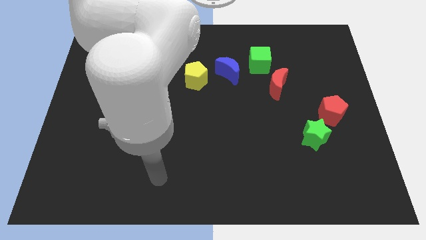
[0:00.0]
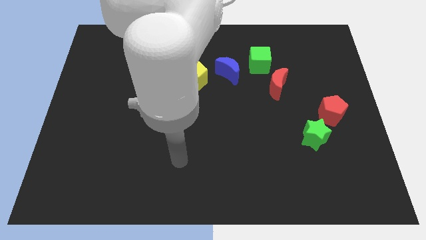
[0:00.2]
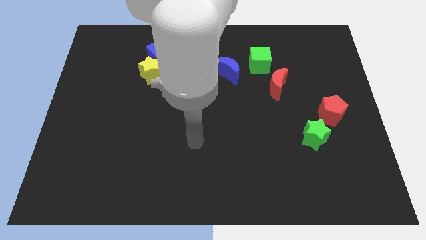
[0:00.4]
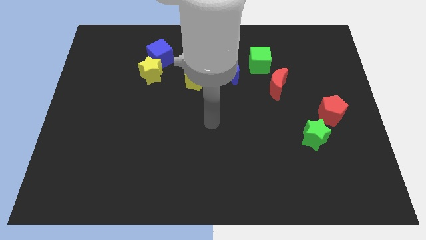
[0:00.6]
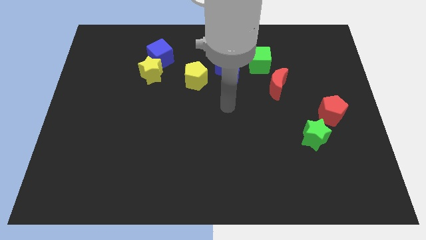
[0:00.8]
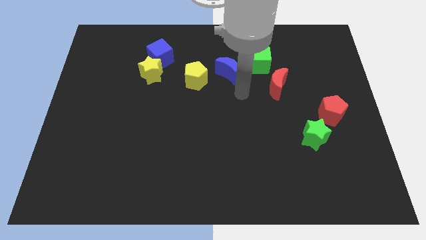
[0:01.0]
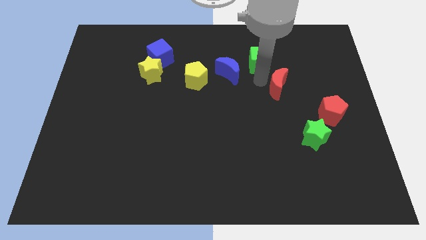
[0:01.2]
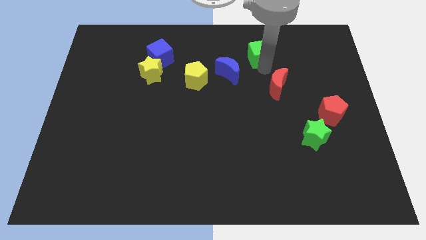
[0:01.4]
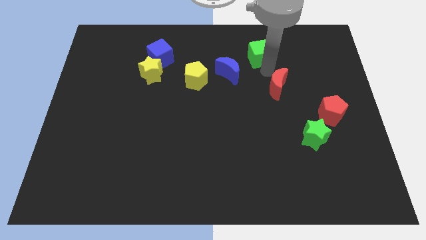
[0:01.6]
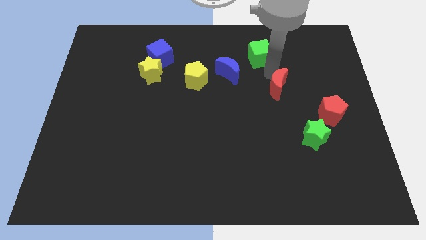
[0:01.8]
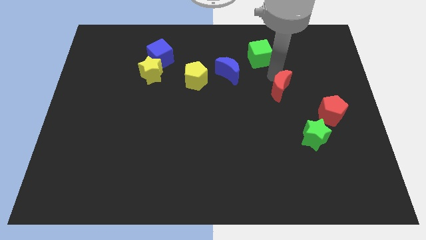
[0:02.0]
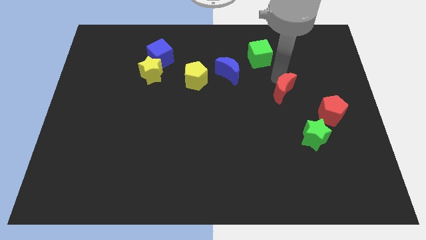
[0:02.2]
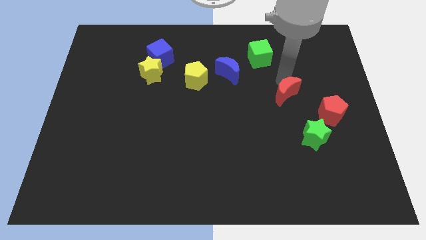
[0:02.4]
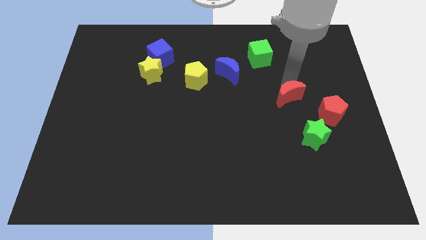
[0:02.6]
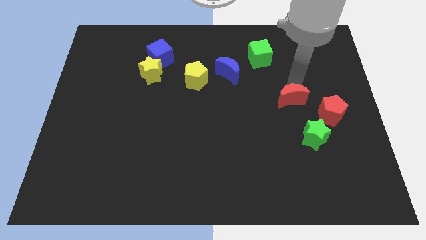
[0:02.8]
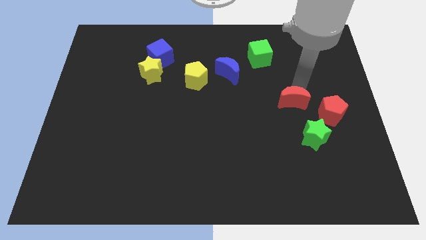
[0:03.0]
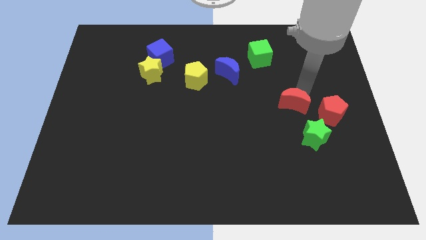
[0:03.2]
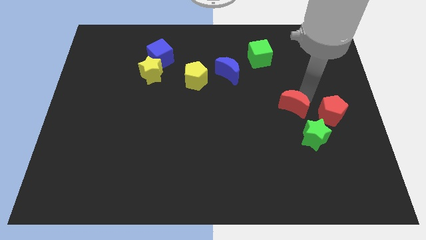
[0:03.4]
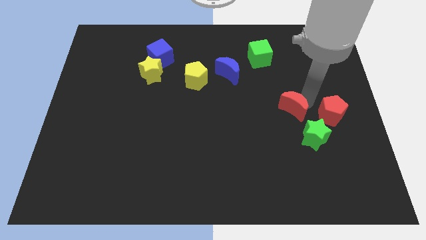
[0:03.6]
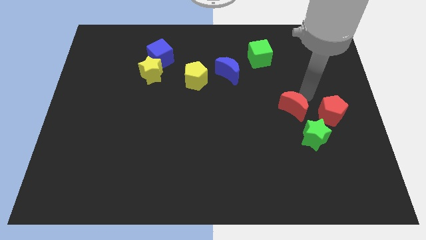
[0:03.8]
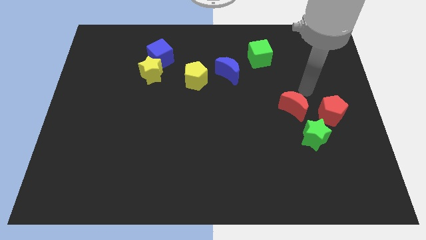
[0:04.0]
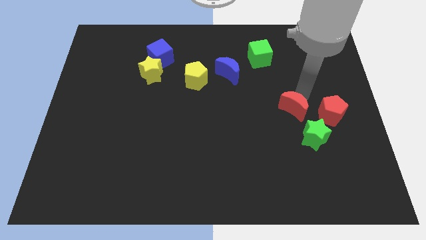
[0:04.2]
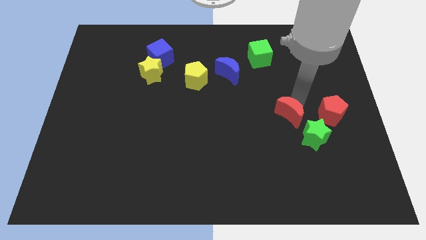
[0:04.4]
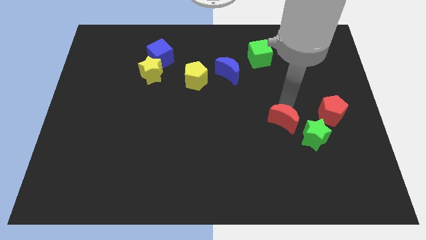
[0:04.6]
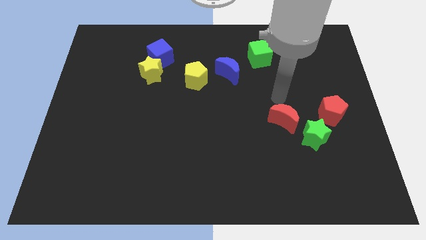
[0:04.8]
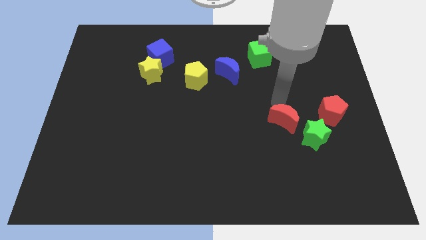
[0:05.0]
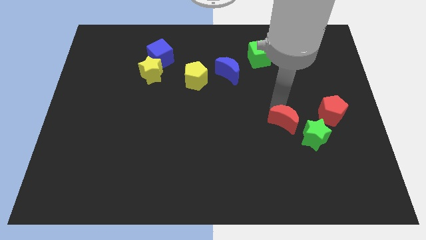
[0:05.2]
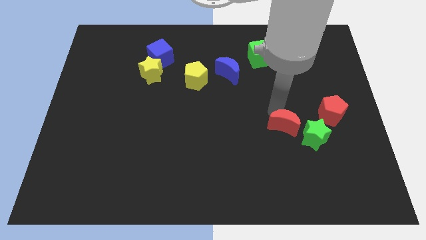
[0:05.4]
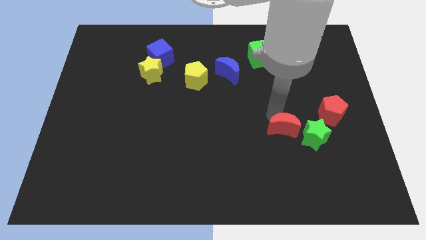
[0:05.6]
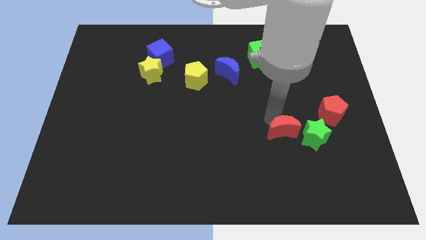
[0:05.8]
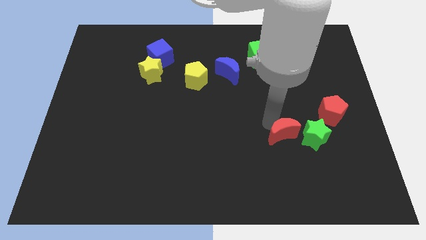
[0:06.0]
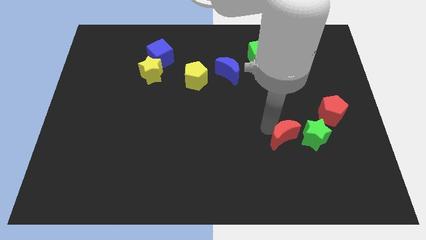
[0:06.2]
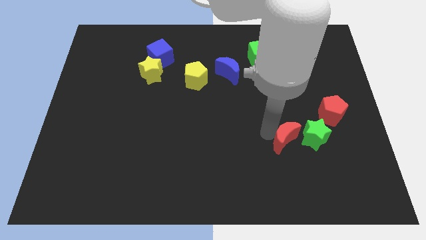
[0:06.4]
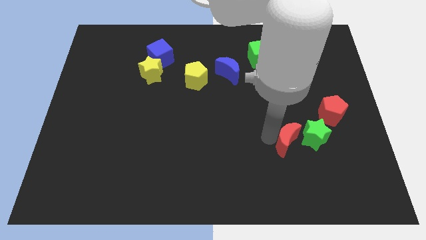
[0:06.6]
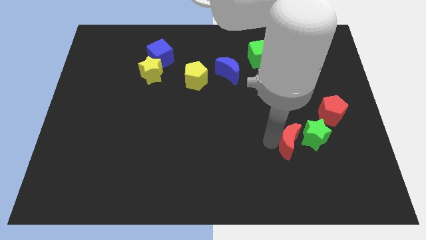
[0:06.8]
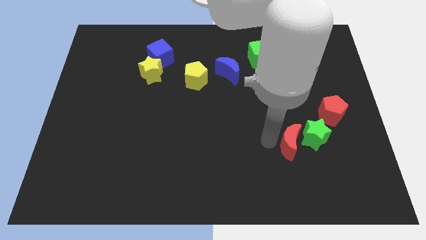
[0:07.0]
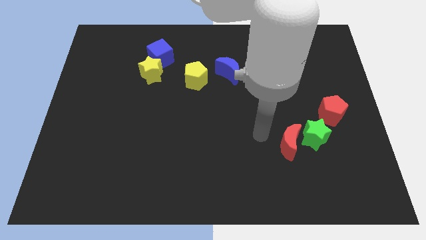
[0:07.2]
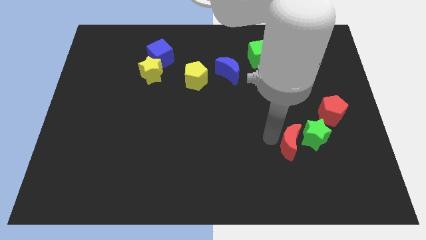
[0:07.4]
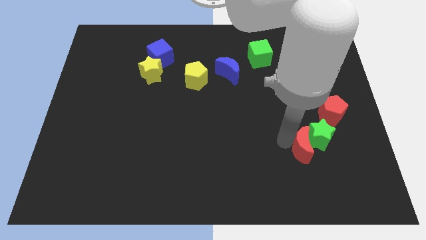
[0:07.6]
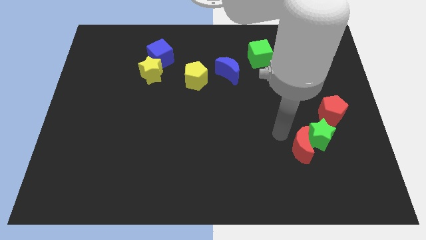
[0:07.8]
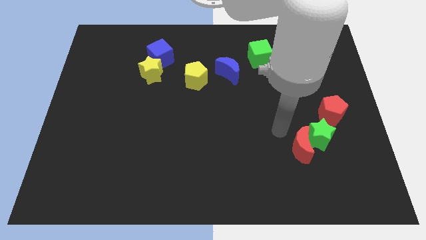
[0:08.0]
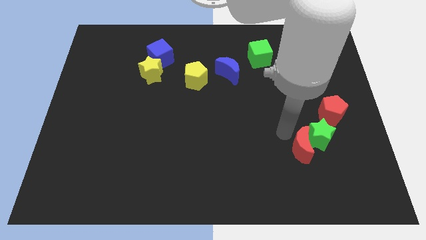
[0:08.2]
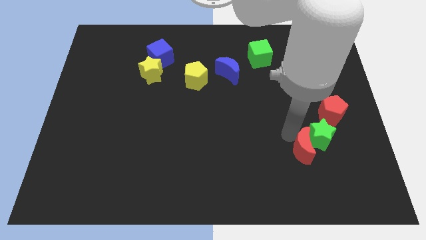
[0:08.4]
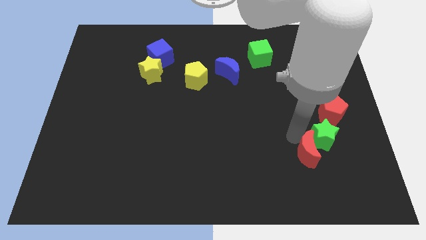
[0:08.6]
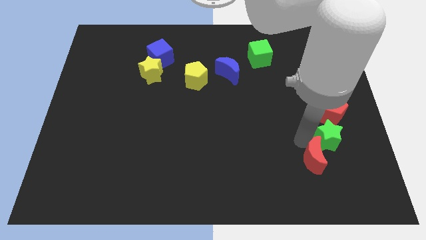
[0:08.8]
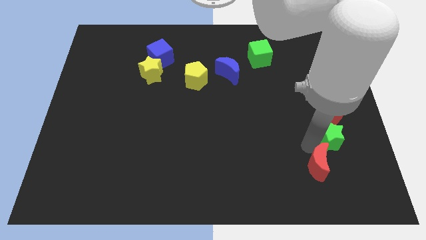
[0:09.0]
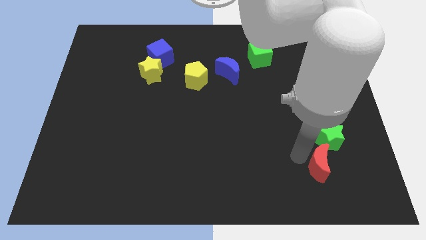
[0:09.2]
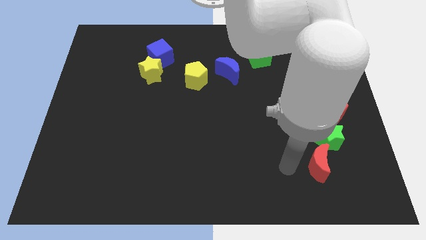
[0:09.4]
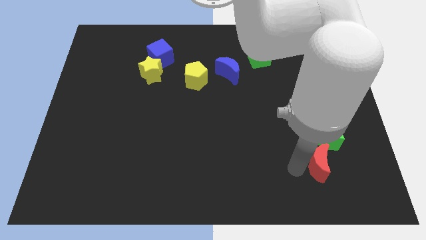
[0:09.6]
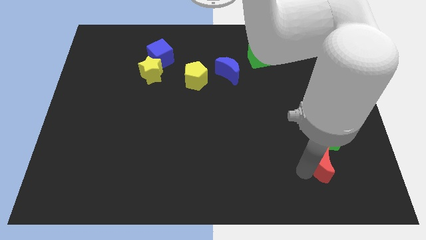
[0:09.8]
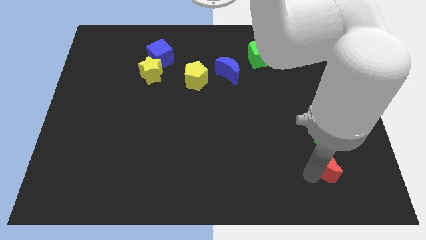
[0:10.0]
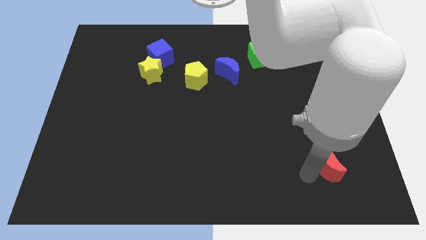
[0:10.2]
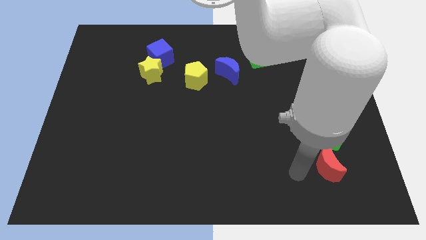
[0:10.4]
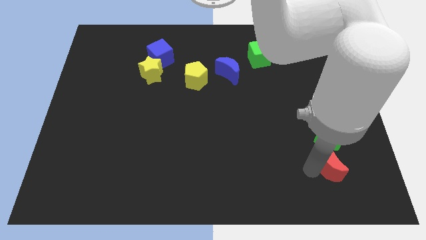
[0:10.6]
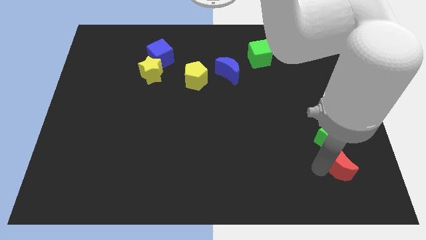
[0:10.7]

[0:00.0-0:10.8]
slide the red moon to the bottom right side of the green star

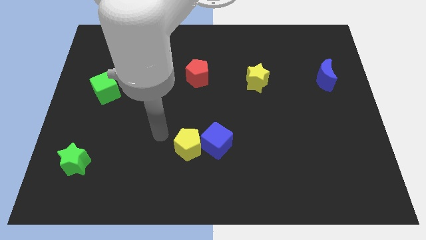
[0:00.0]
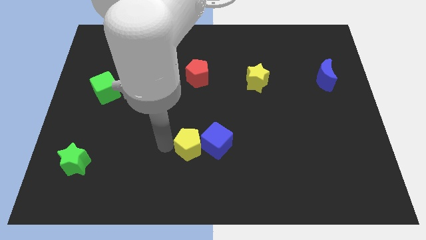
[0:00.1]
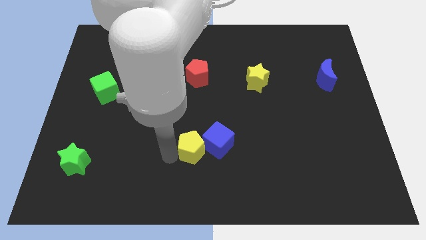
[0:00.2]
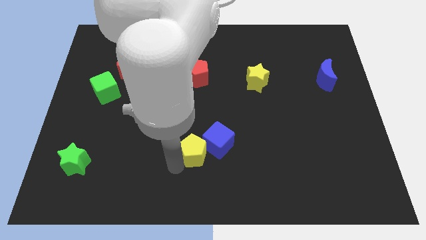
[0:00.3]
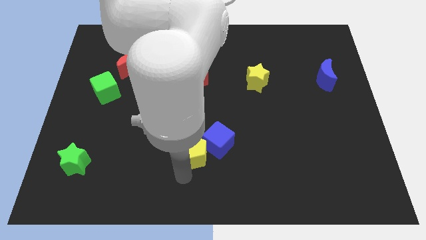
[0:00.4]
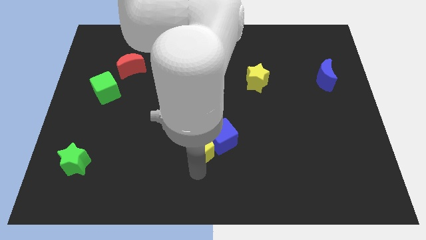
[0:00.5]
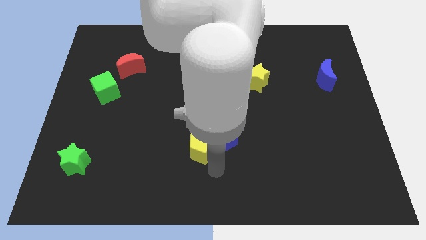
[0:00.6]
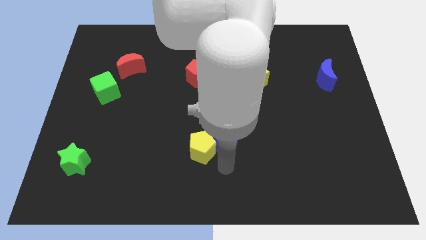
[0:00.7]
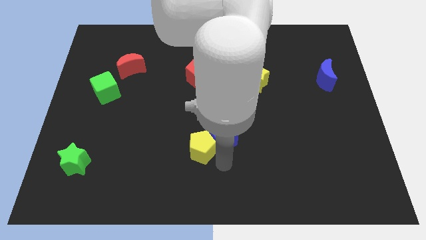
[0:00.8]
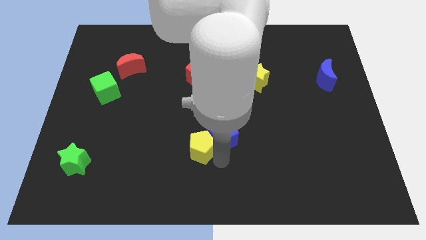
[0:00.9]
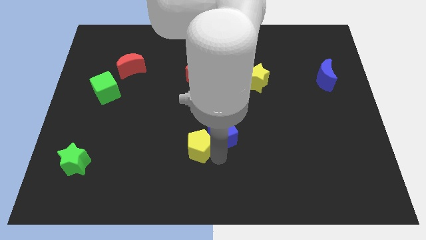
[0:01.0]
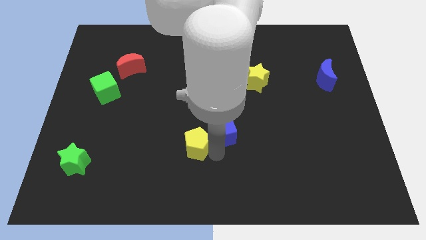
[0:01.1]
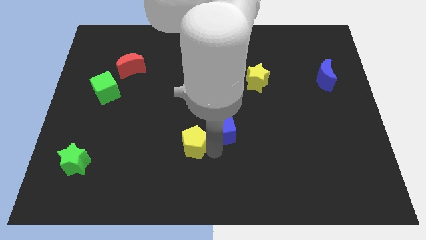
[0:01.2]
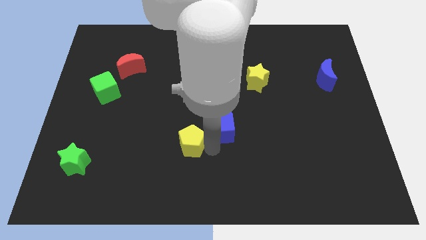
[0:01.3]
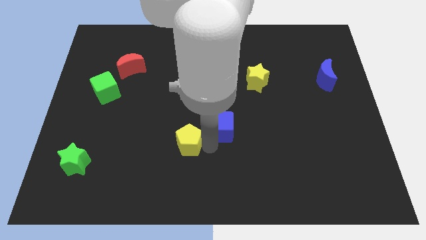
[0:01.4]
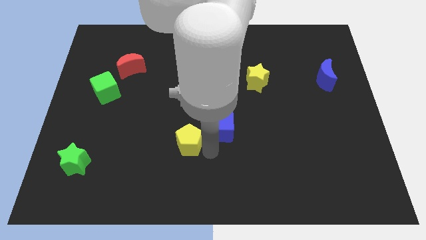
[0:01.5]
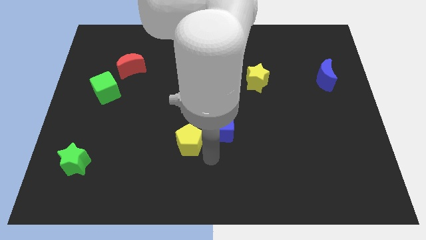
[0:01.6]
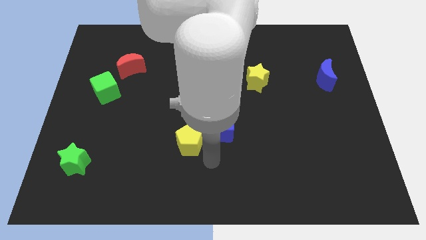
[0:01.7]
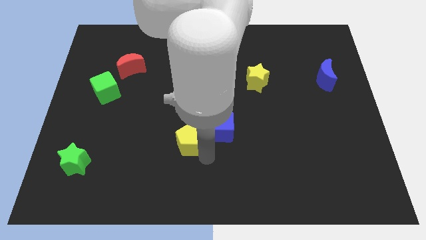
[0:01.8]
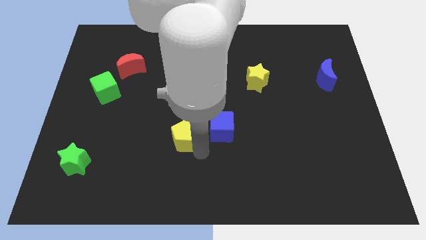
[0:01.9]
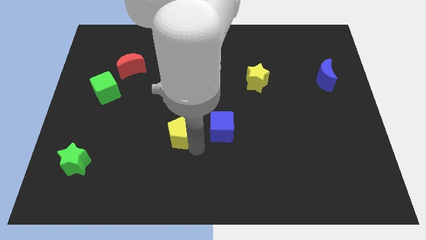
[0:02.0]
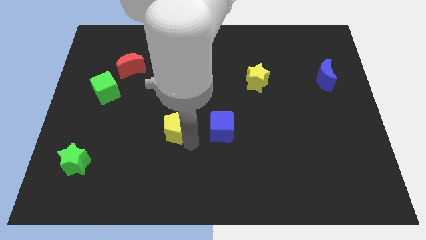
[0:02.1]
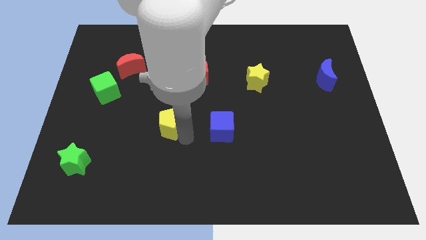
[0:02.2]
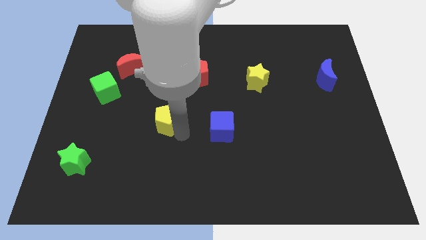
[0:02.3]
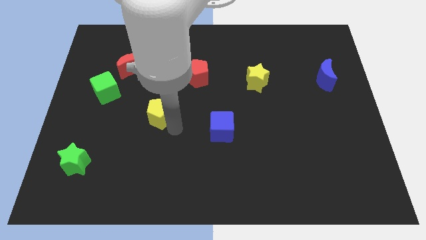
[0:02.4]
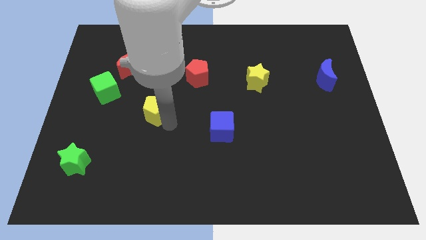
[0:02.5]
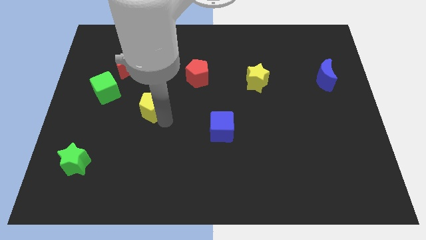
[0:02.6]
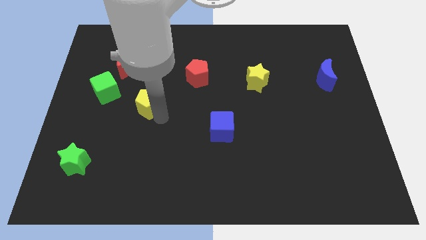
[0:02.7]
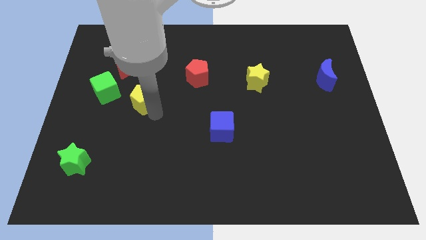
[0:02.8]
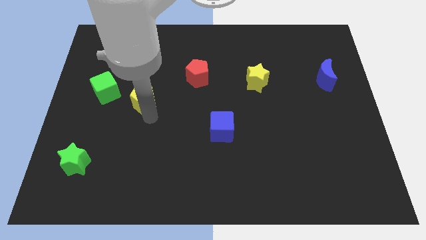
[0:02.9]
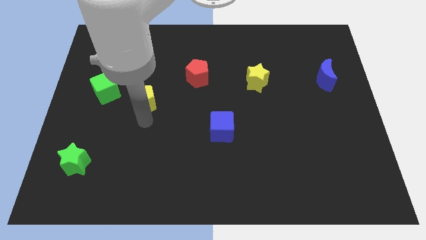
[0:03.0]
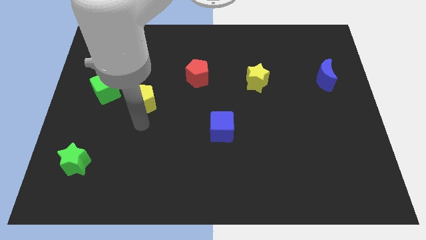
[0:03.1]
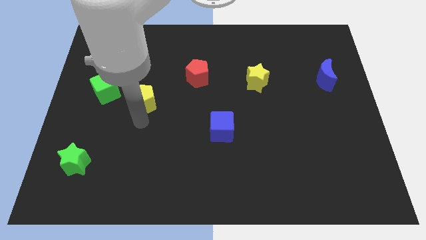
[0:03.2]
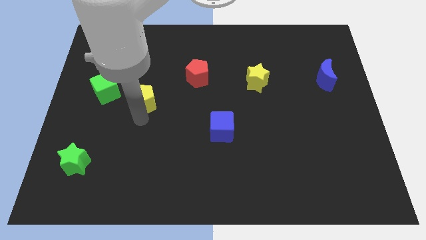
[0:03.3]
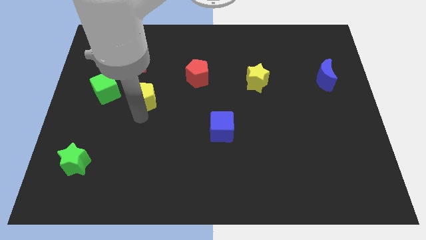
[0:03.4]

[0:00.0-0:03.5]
move the yellow pentagon to the bottom right side of the red moon
